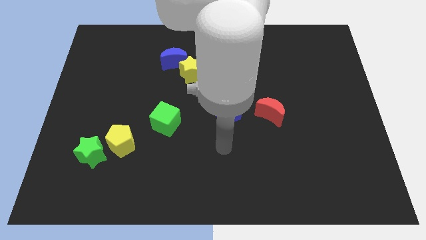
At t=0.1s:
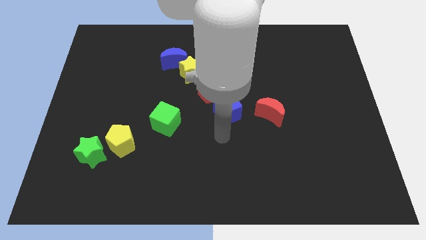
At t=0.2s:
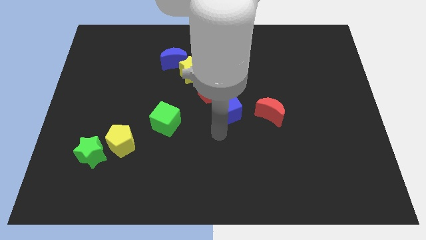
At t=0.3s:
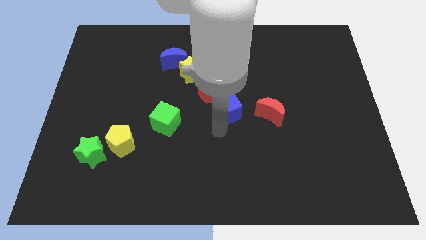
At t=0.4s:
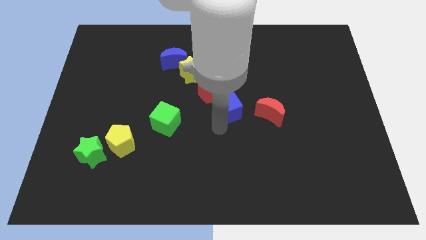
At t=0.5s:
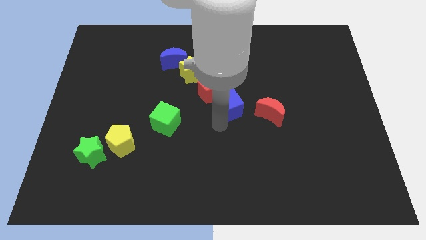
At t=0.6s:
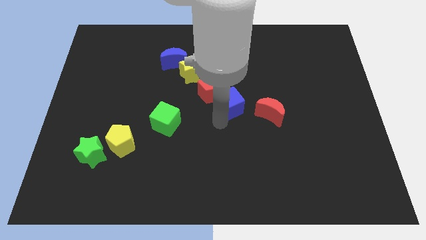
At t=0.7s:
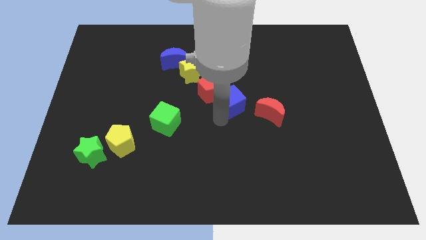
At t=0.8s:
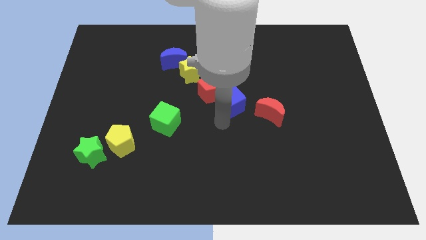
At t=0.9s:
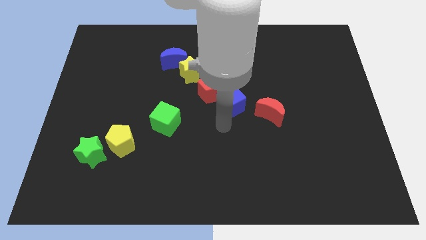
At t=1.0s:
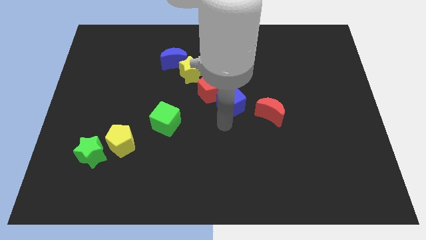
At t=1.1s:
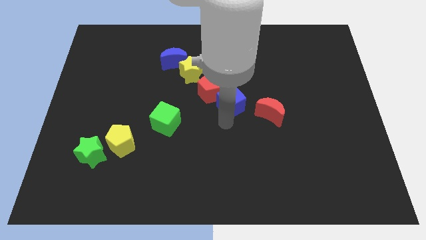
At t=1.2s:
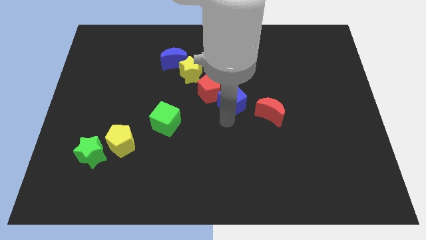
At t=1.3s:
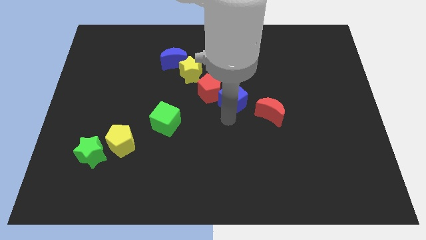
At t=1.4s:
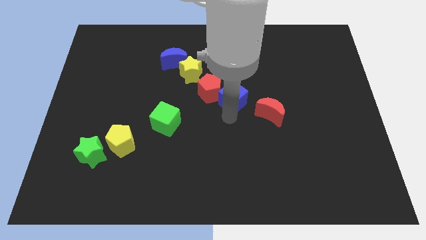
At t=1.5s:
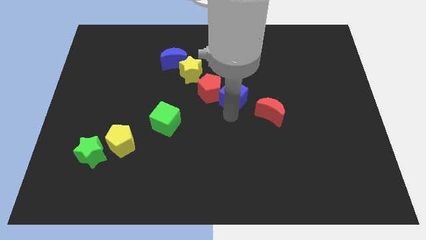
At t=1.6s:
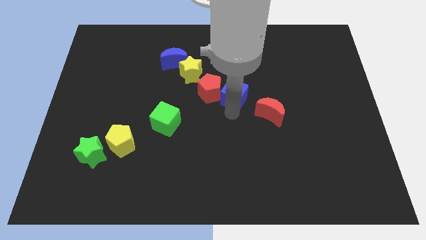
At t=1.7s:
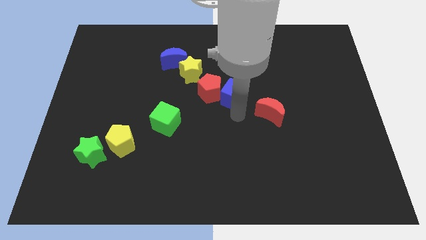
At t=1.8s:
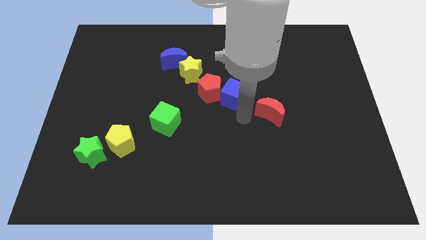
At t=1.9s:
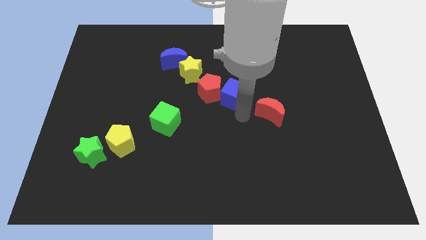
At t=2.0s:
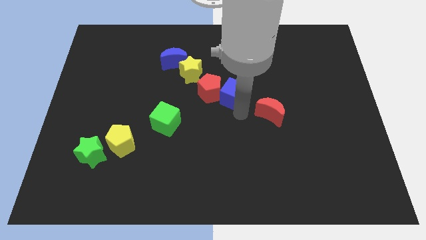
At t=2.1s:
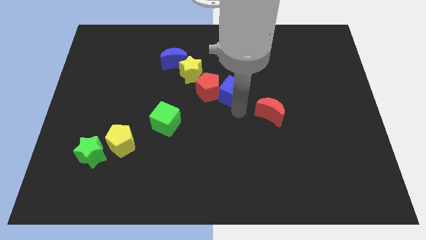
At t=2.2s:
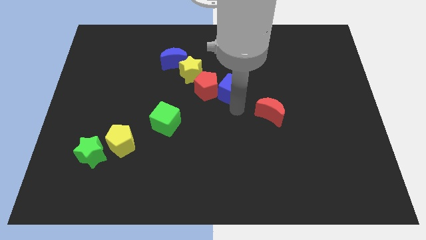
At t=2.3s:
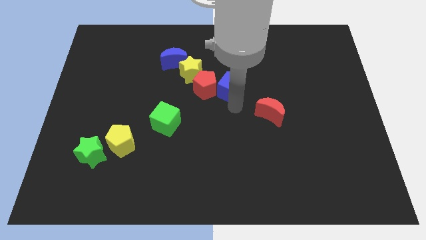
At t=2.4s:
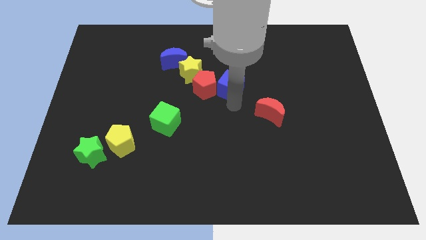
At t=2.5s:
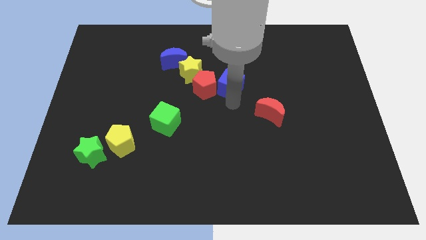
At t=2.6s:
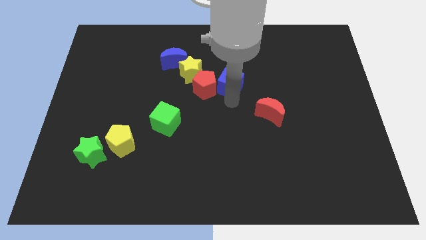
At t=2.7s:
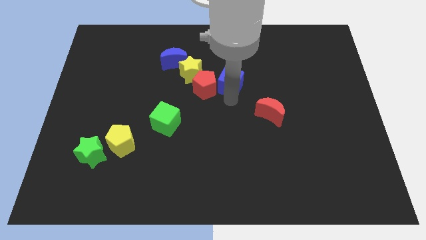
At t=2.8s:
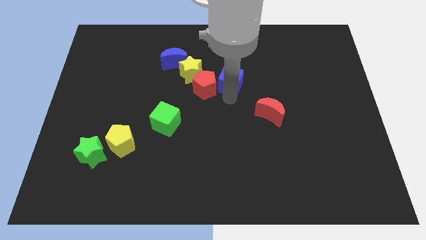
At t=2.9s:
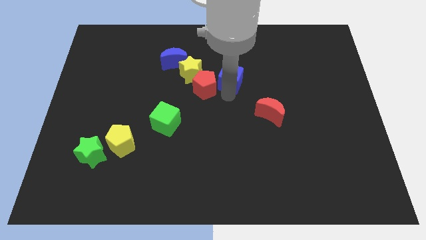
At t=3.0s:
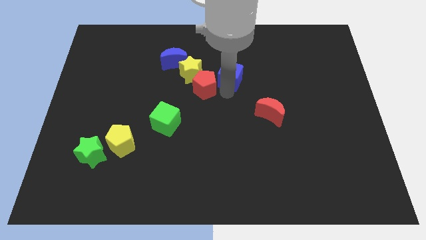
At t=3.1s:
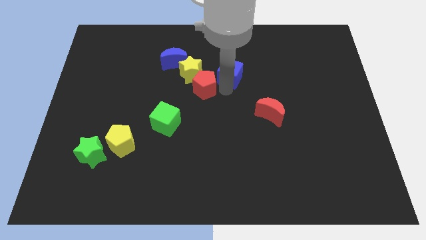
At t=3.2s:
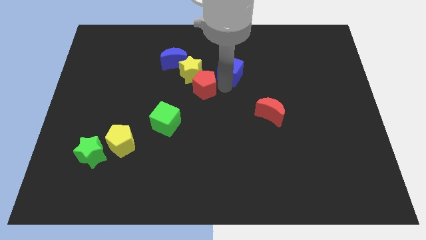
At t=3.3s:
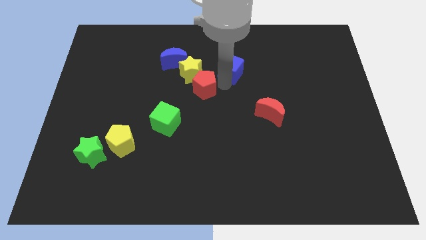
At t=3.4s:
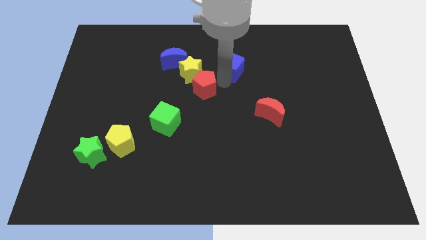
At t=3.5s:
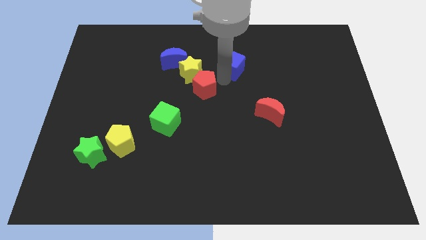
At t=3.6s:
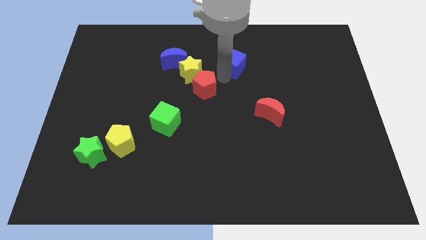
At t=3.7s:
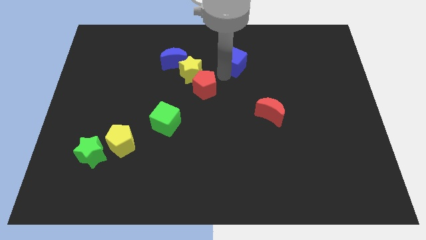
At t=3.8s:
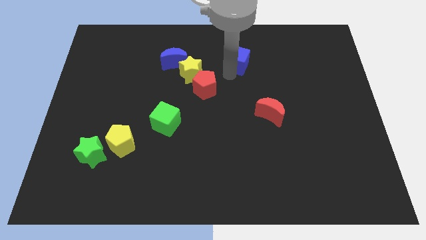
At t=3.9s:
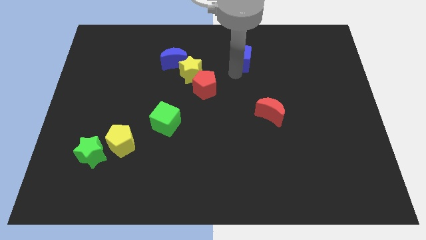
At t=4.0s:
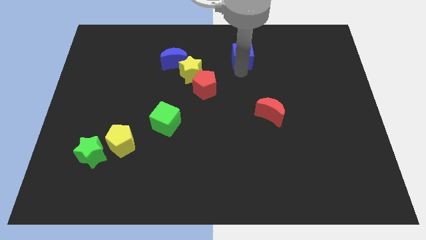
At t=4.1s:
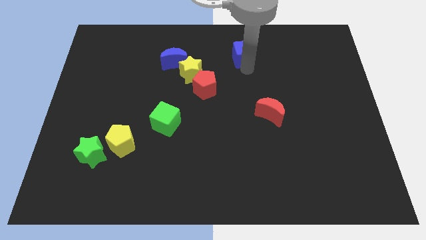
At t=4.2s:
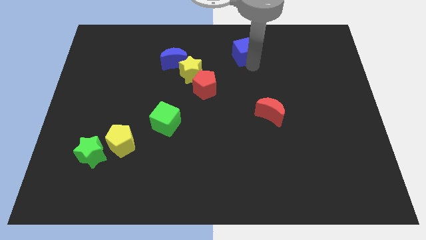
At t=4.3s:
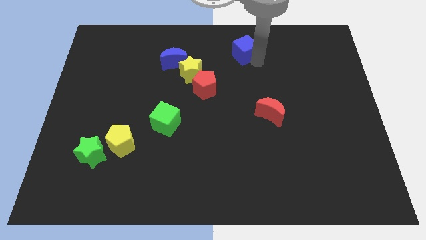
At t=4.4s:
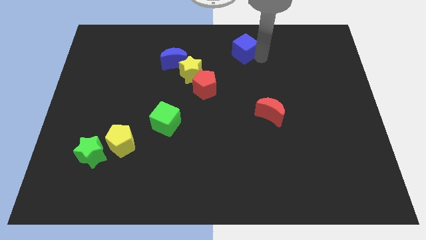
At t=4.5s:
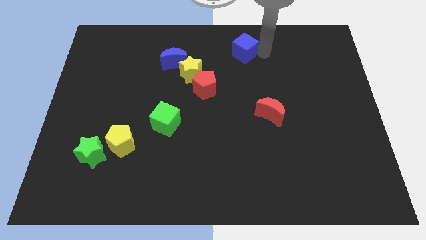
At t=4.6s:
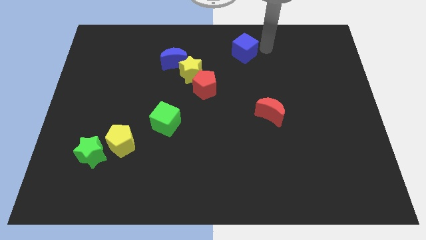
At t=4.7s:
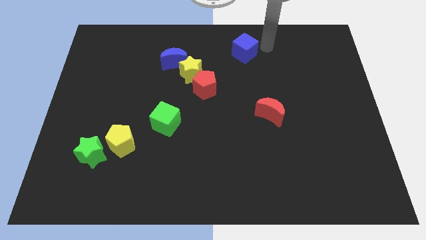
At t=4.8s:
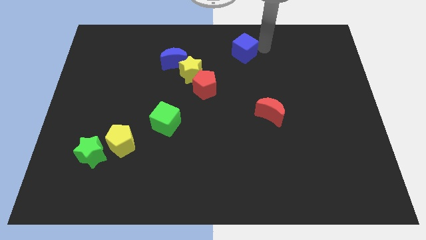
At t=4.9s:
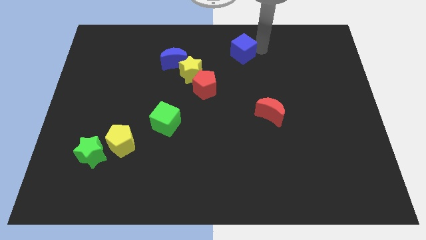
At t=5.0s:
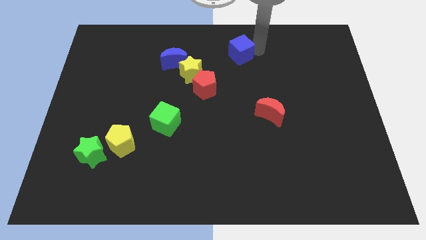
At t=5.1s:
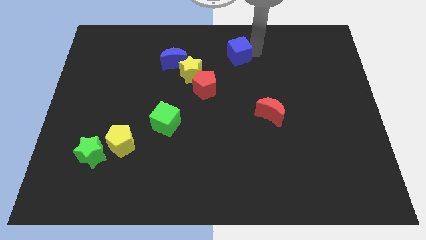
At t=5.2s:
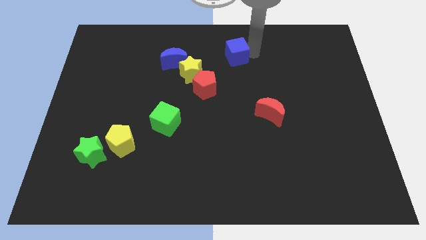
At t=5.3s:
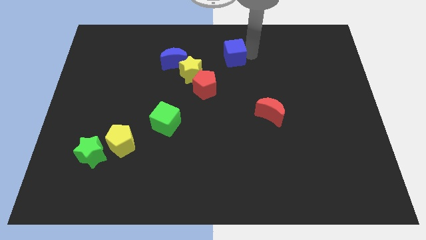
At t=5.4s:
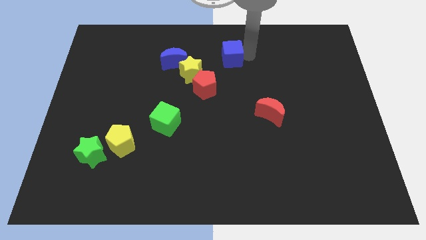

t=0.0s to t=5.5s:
move the blue cube to the top right side of the yellow star

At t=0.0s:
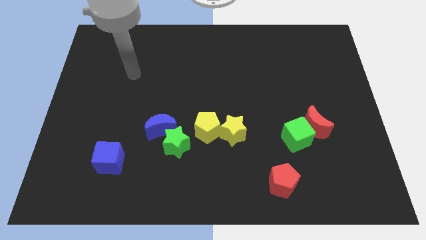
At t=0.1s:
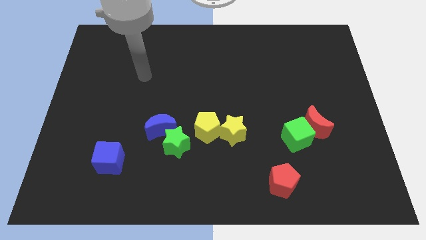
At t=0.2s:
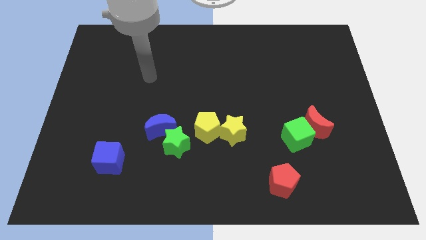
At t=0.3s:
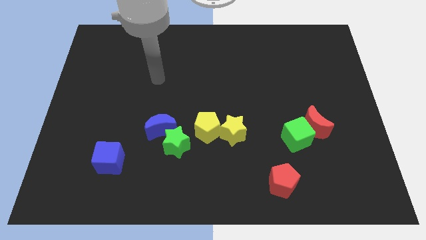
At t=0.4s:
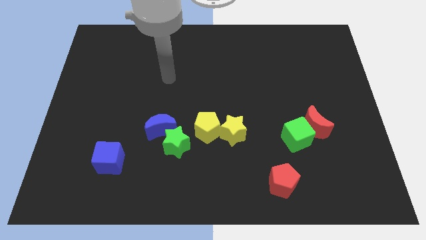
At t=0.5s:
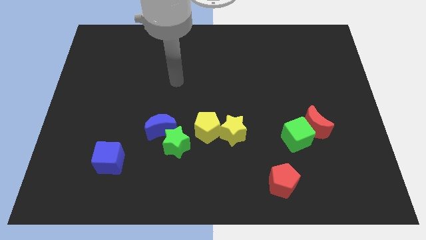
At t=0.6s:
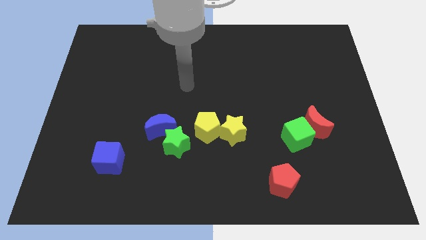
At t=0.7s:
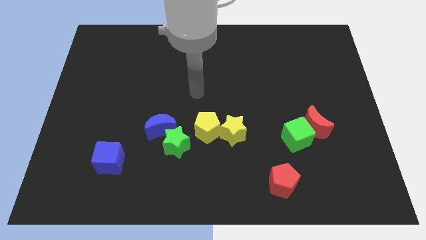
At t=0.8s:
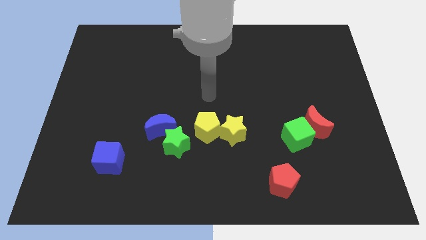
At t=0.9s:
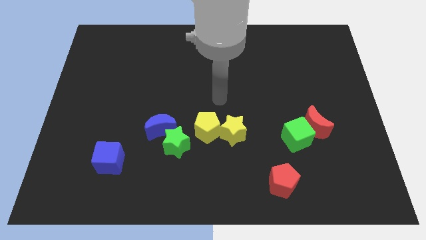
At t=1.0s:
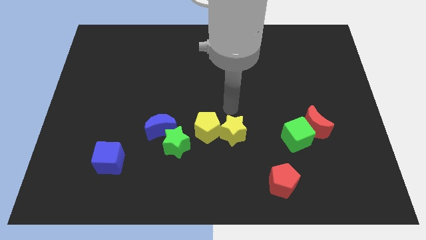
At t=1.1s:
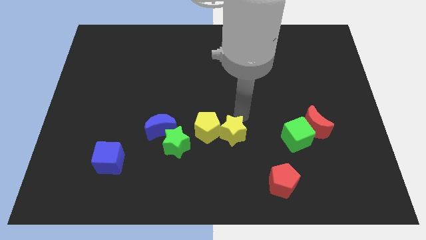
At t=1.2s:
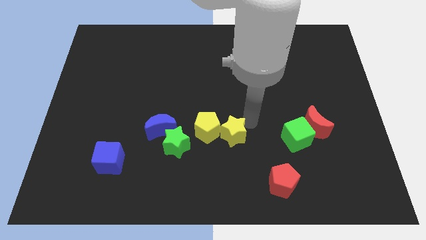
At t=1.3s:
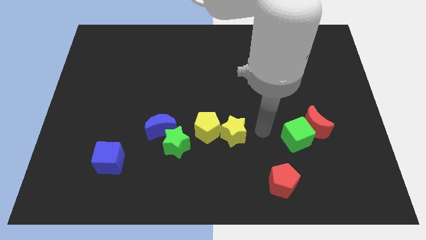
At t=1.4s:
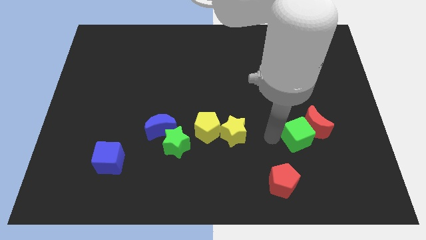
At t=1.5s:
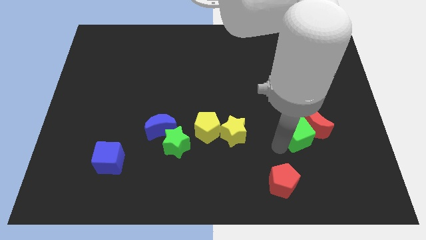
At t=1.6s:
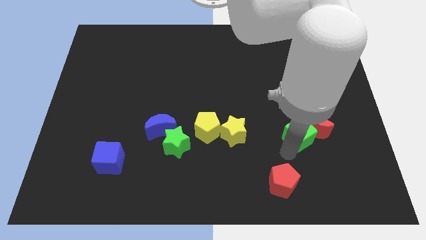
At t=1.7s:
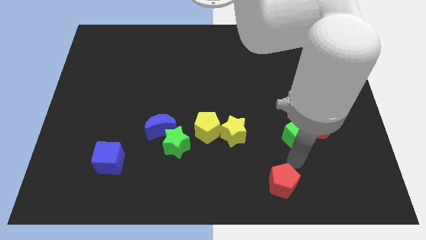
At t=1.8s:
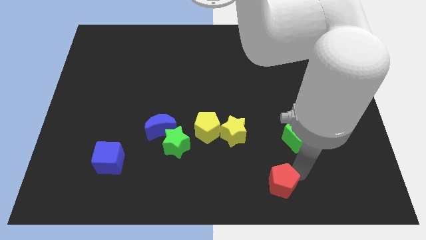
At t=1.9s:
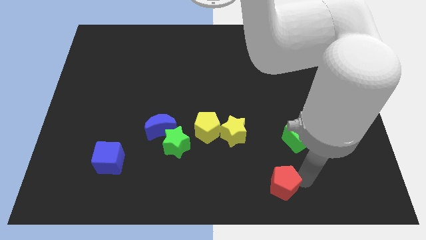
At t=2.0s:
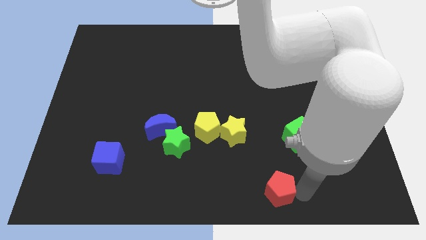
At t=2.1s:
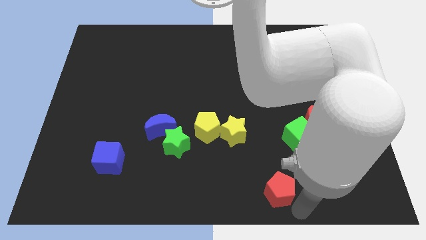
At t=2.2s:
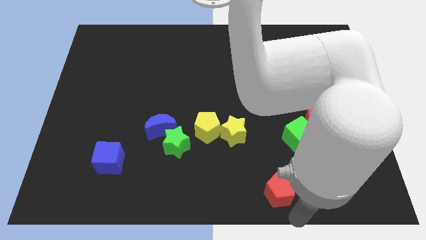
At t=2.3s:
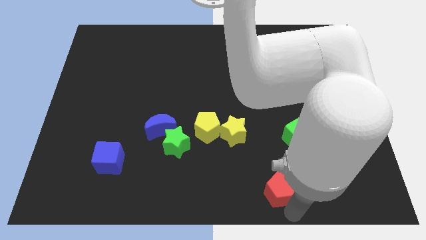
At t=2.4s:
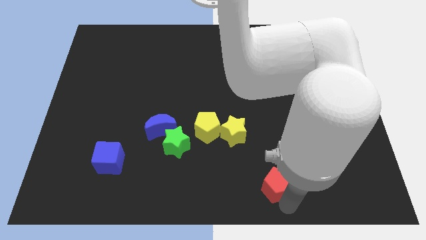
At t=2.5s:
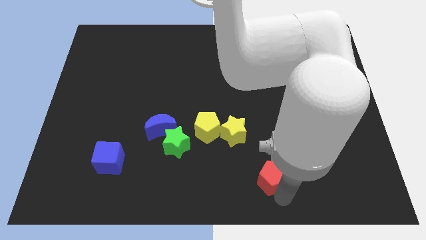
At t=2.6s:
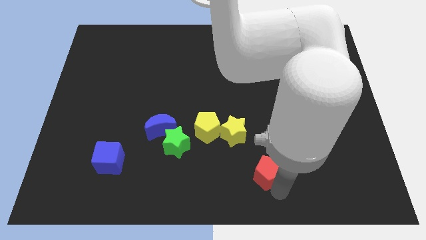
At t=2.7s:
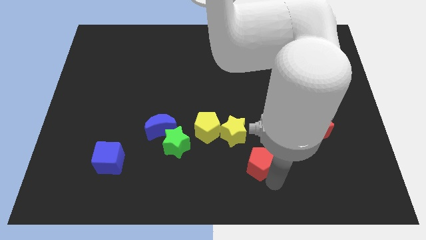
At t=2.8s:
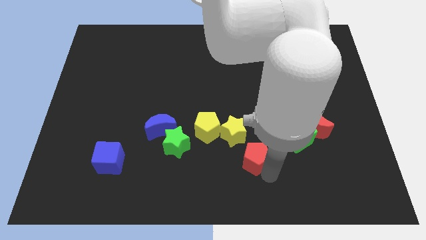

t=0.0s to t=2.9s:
slide the red pentagon to the bottom right side of the yellow pentagon

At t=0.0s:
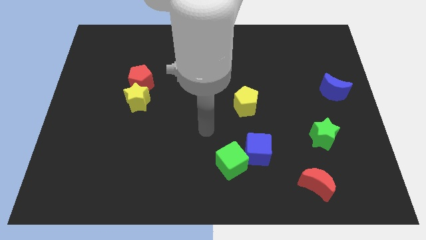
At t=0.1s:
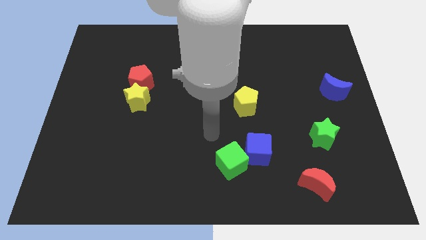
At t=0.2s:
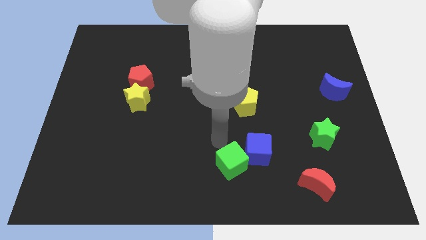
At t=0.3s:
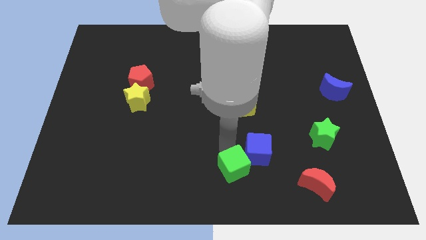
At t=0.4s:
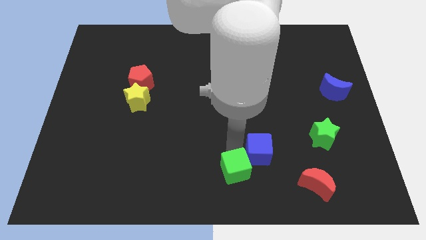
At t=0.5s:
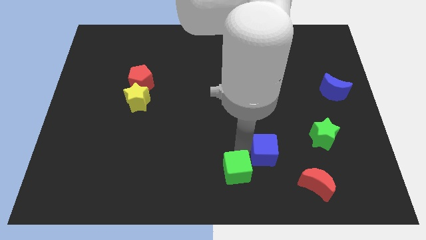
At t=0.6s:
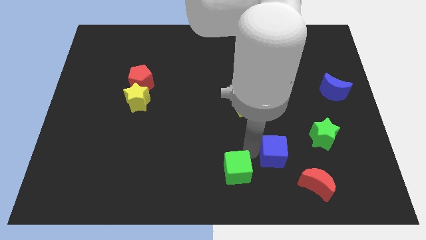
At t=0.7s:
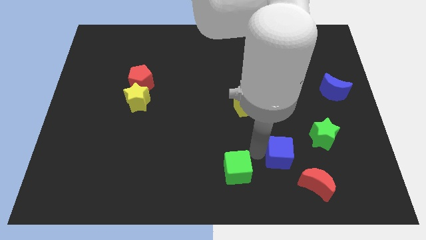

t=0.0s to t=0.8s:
slide the blue cube to the bottom left of the green star
